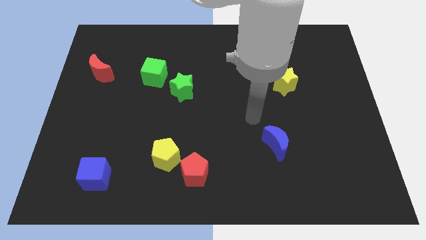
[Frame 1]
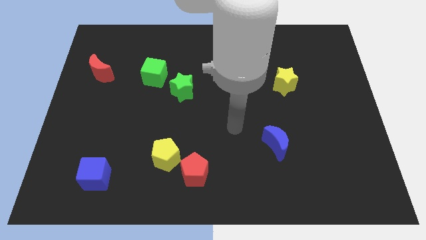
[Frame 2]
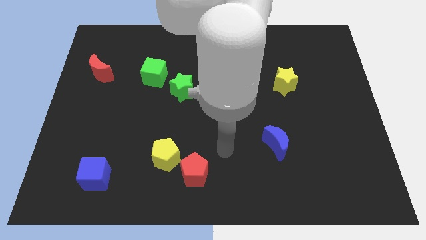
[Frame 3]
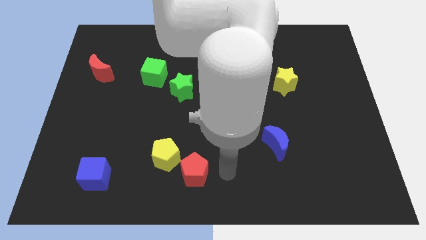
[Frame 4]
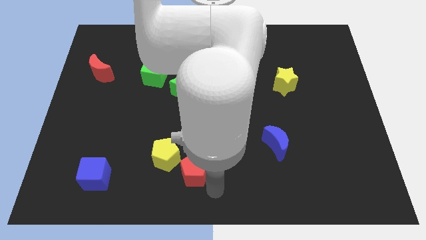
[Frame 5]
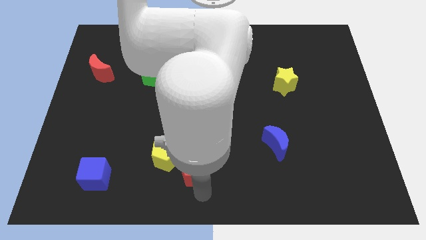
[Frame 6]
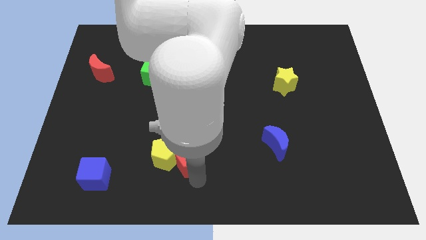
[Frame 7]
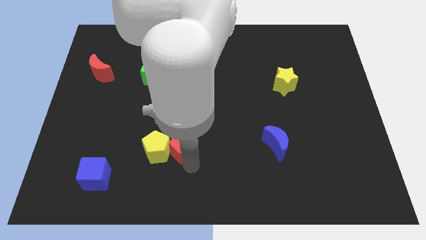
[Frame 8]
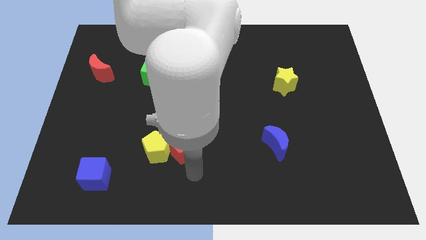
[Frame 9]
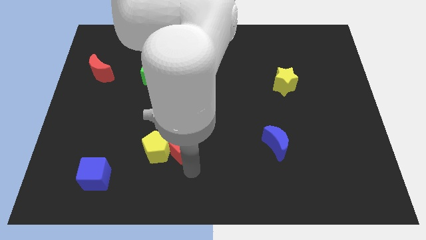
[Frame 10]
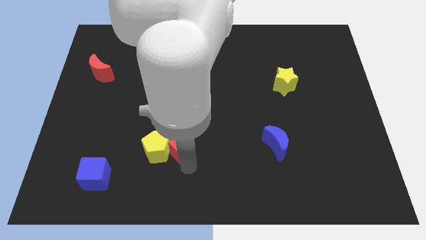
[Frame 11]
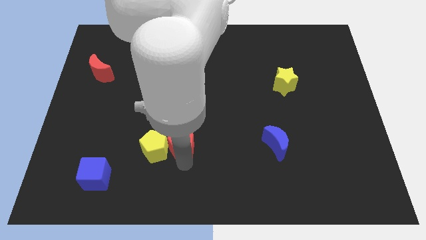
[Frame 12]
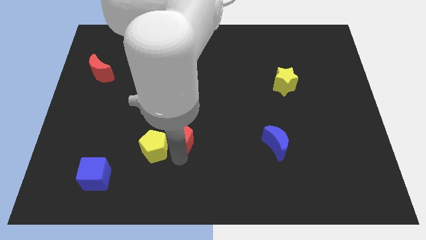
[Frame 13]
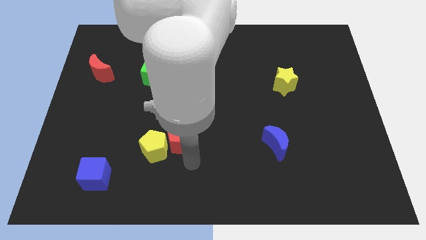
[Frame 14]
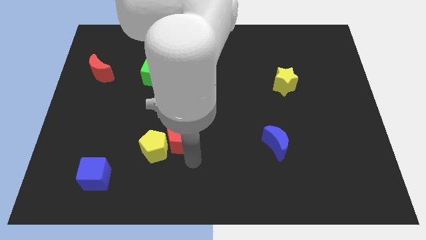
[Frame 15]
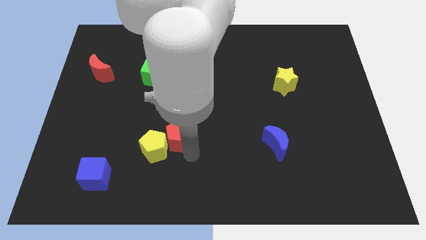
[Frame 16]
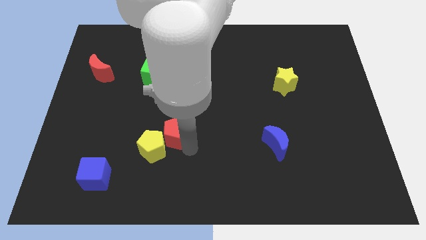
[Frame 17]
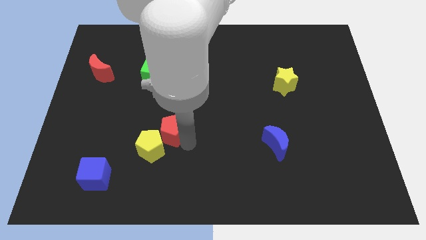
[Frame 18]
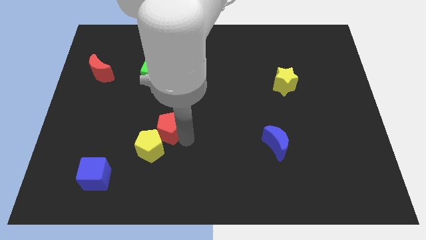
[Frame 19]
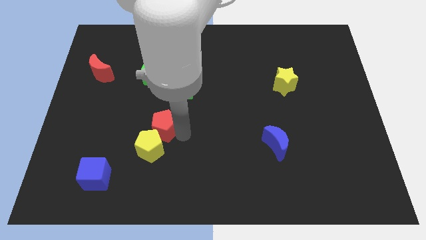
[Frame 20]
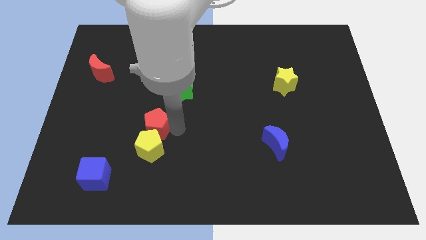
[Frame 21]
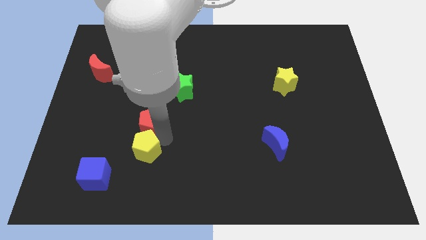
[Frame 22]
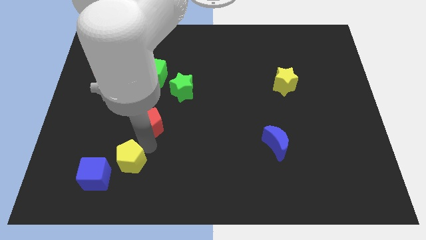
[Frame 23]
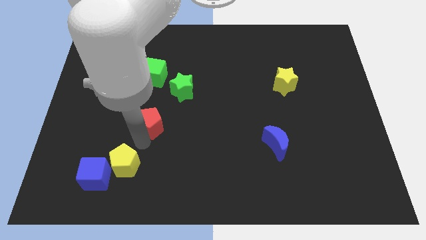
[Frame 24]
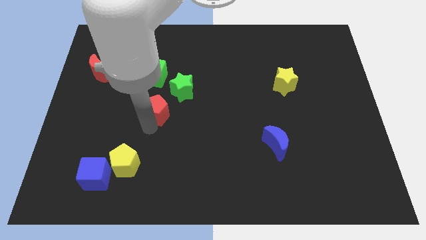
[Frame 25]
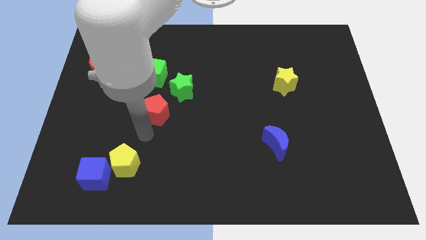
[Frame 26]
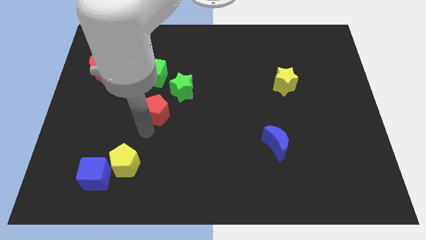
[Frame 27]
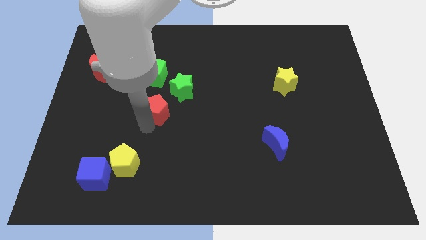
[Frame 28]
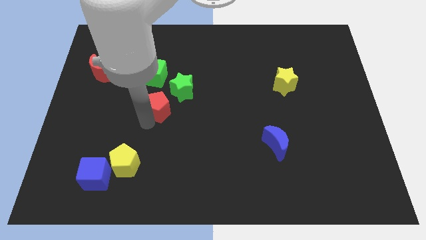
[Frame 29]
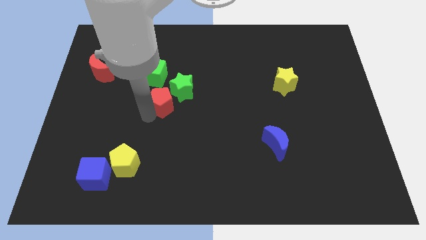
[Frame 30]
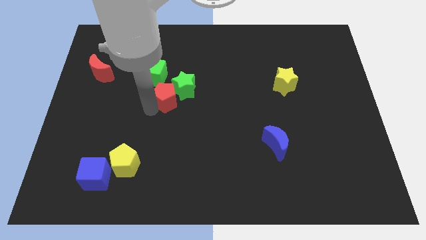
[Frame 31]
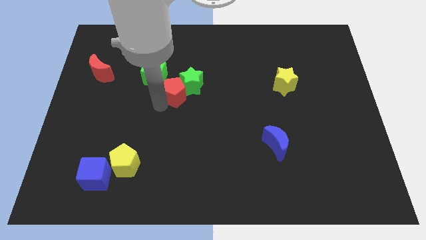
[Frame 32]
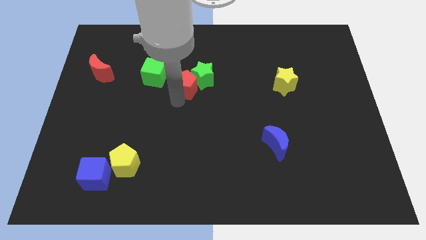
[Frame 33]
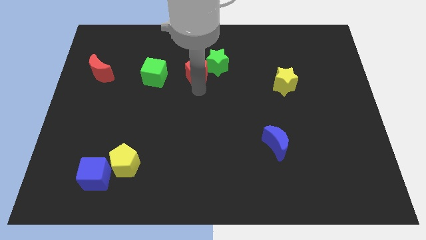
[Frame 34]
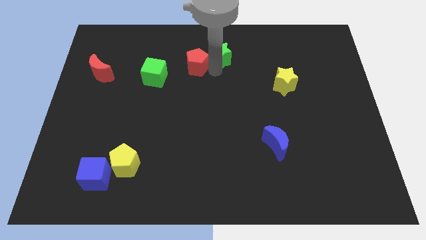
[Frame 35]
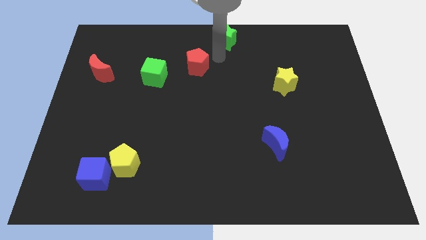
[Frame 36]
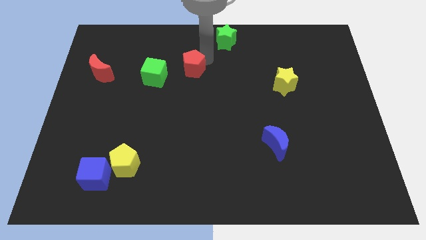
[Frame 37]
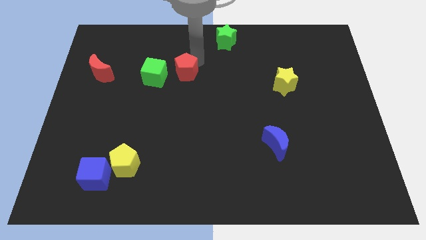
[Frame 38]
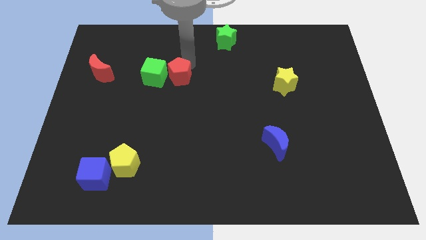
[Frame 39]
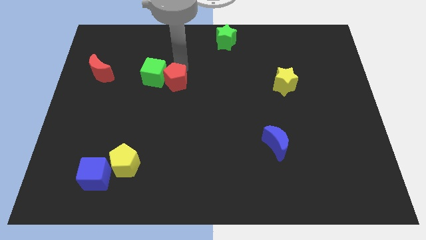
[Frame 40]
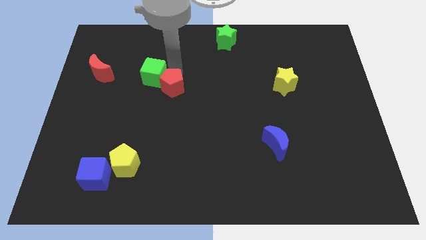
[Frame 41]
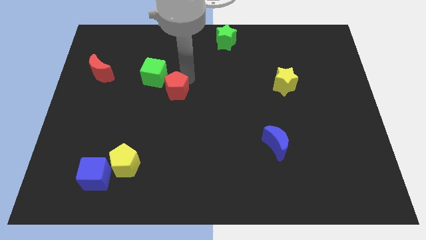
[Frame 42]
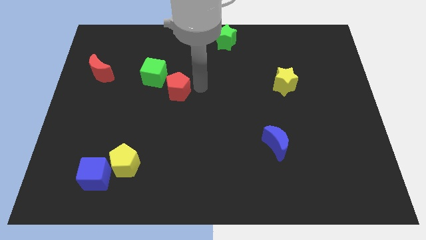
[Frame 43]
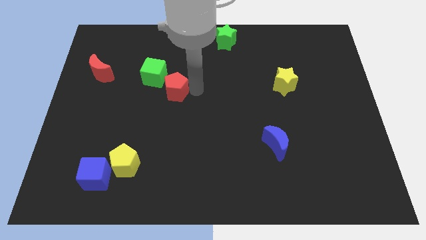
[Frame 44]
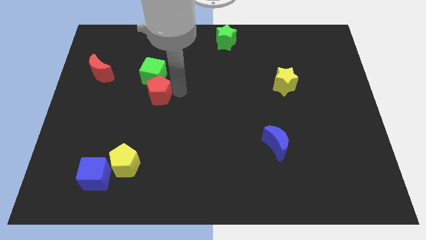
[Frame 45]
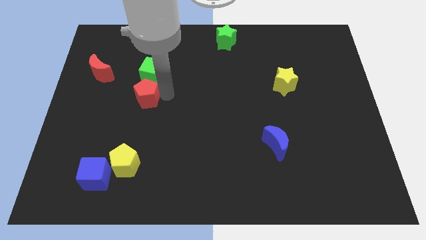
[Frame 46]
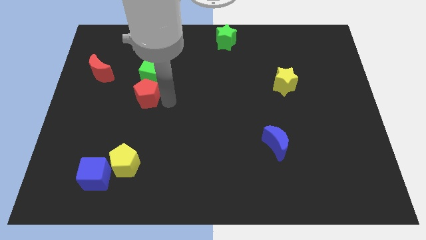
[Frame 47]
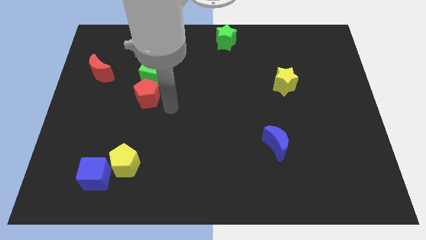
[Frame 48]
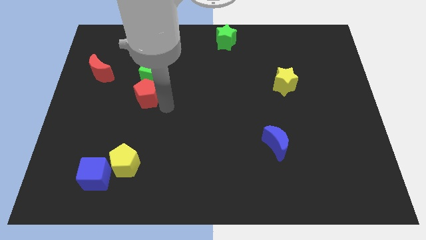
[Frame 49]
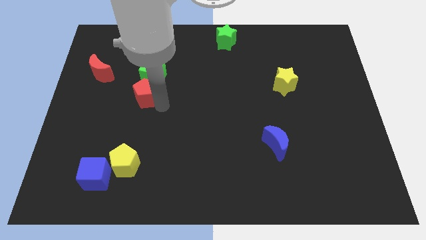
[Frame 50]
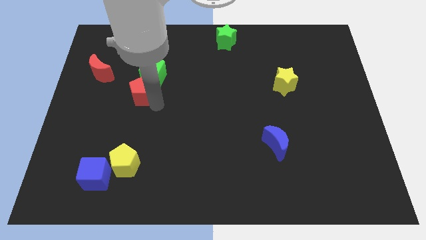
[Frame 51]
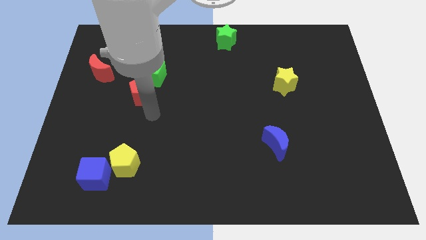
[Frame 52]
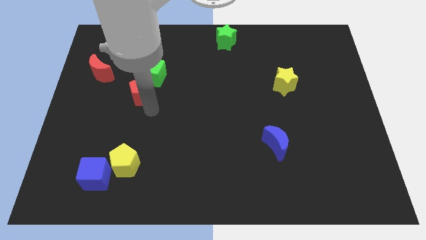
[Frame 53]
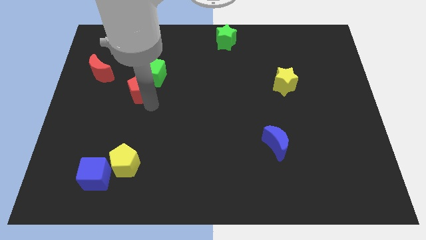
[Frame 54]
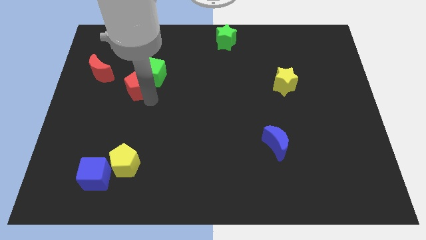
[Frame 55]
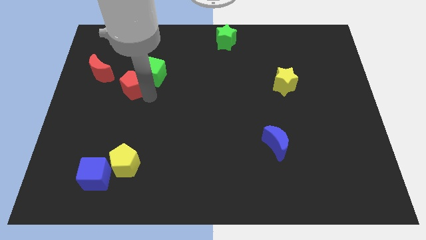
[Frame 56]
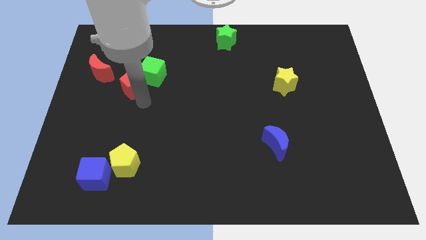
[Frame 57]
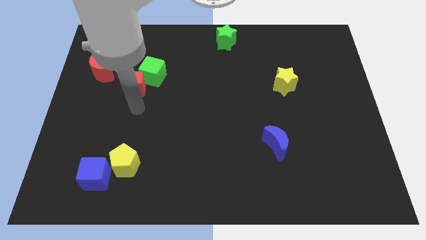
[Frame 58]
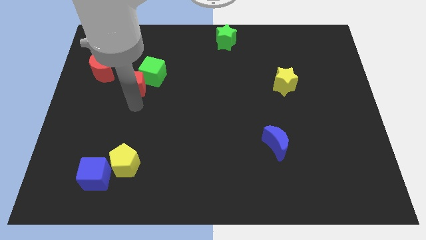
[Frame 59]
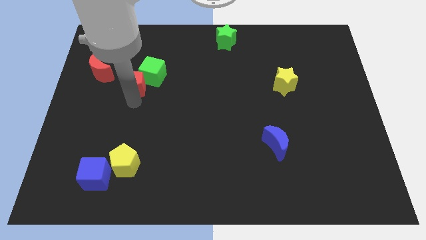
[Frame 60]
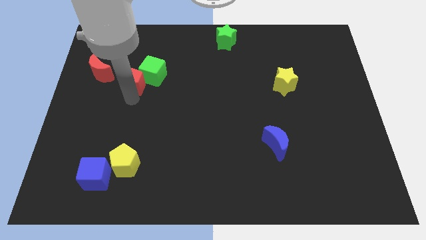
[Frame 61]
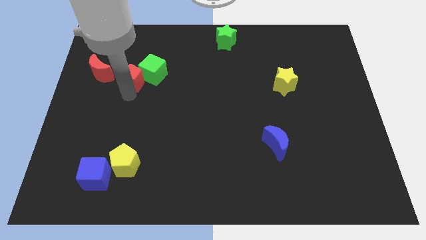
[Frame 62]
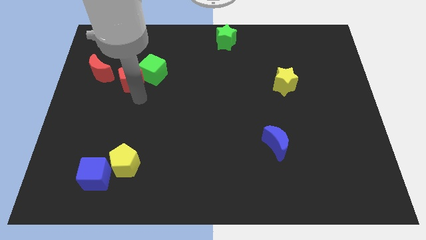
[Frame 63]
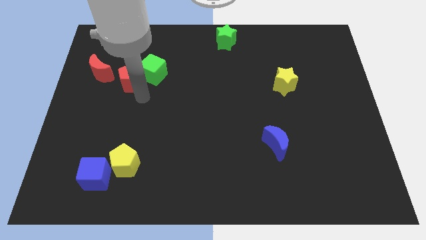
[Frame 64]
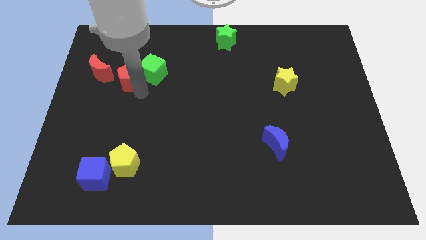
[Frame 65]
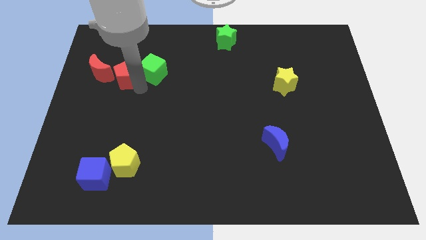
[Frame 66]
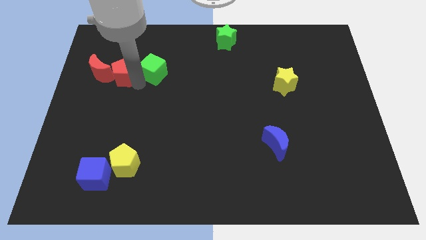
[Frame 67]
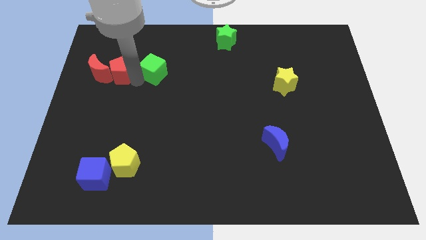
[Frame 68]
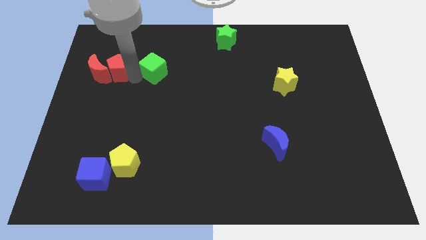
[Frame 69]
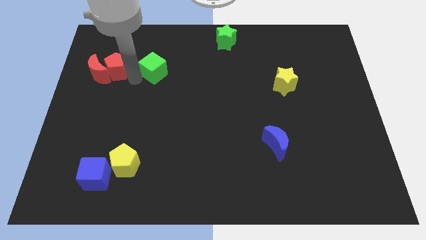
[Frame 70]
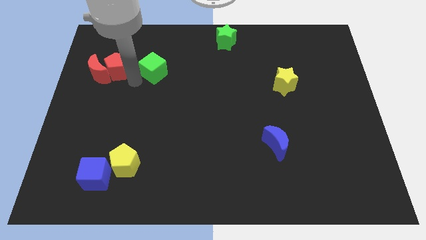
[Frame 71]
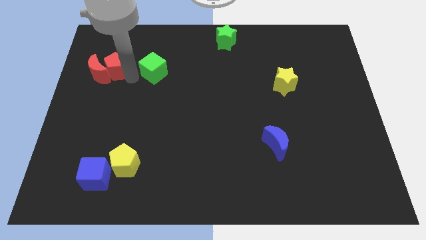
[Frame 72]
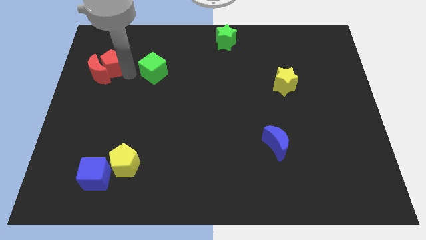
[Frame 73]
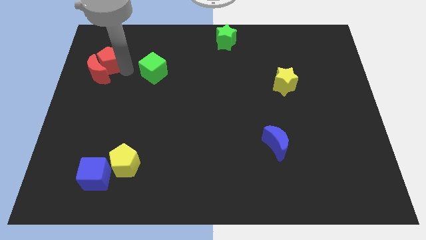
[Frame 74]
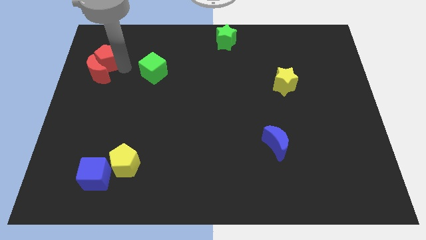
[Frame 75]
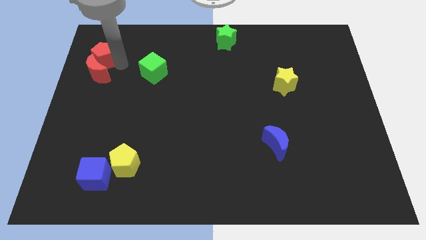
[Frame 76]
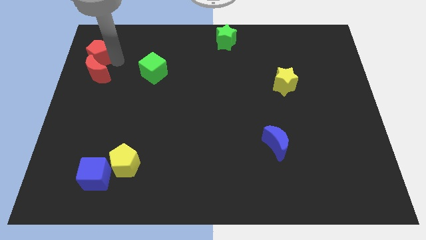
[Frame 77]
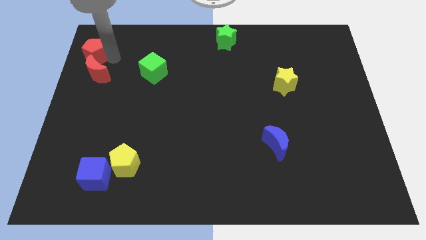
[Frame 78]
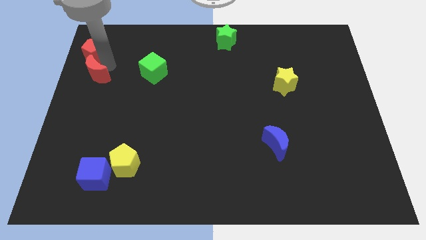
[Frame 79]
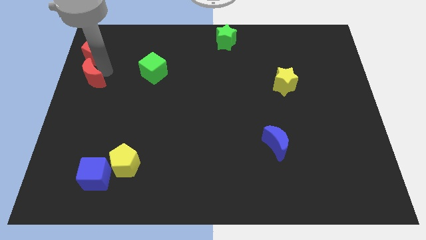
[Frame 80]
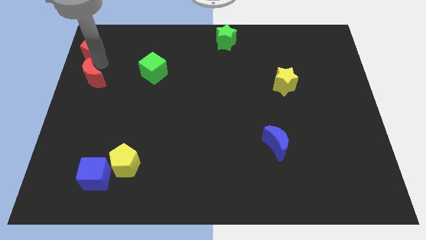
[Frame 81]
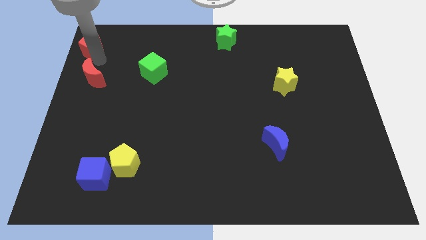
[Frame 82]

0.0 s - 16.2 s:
push the red pentagon to the upper left corner
